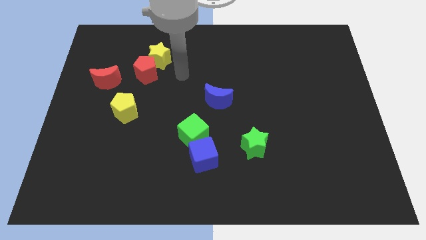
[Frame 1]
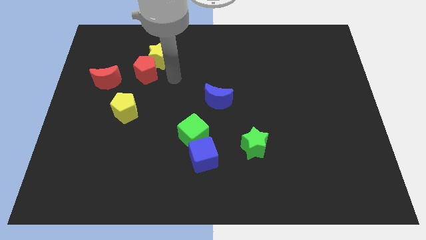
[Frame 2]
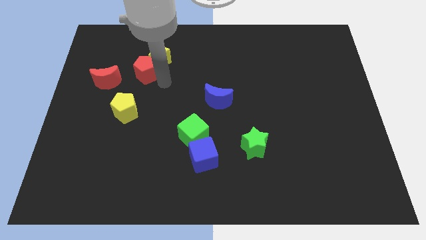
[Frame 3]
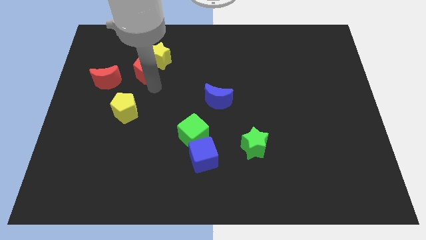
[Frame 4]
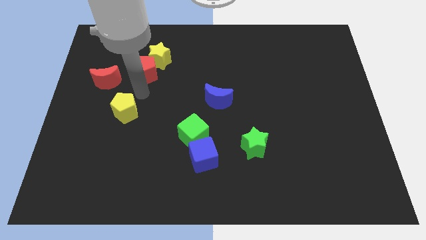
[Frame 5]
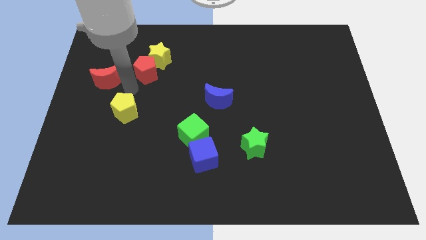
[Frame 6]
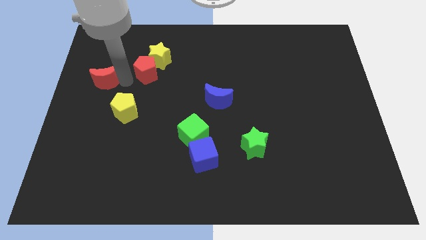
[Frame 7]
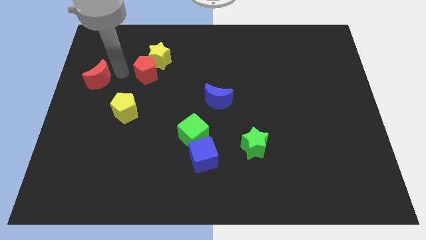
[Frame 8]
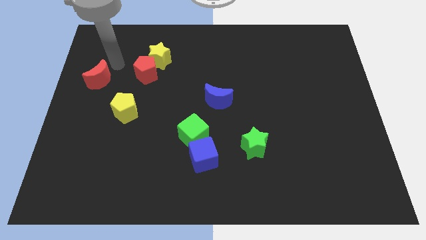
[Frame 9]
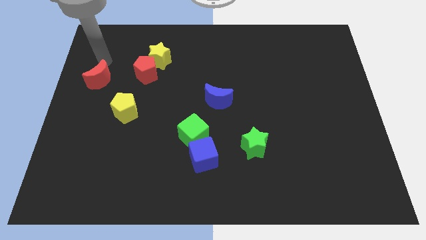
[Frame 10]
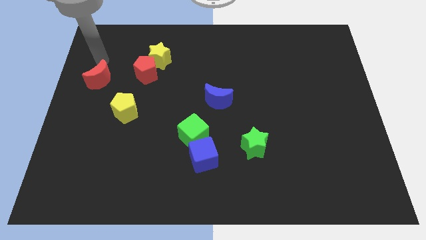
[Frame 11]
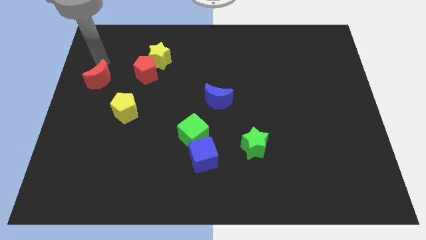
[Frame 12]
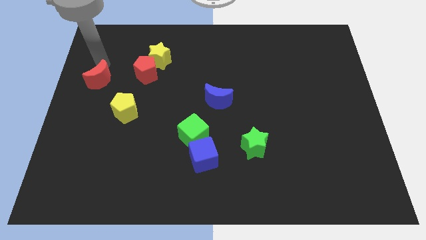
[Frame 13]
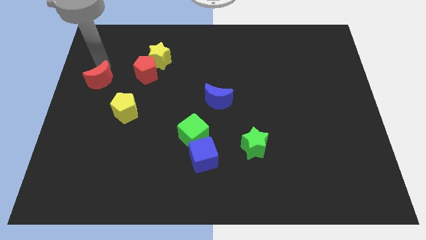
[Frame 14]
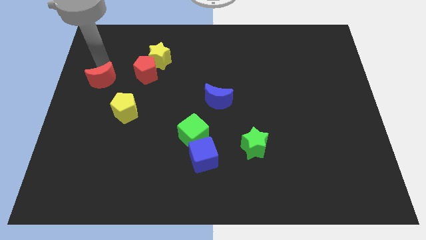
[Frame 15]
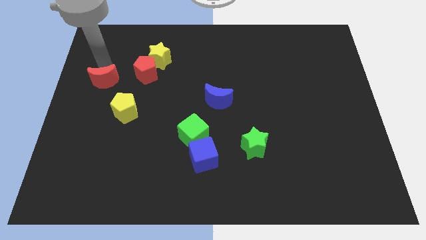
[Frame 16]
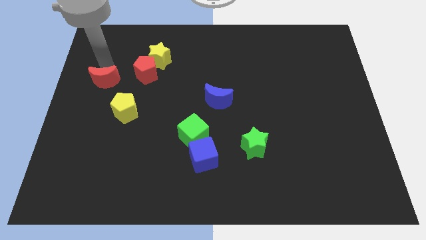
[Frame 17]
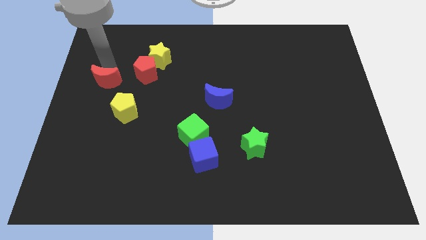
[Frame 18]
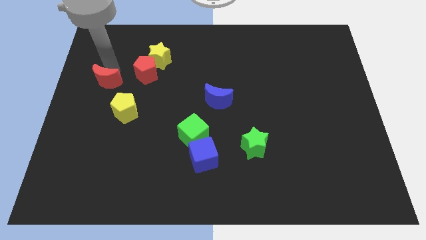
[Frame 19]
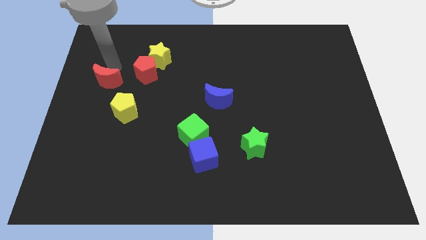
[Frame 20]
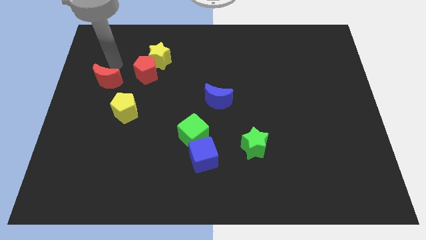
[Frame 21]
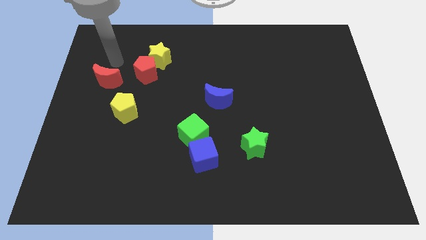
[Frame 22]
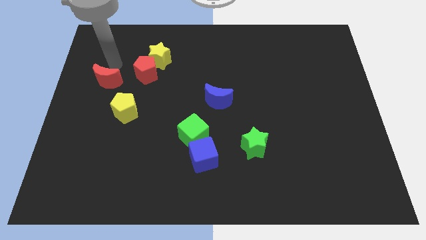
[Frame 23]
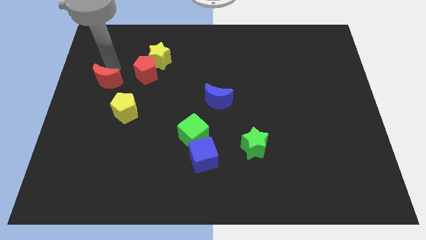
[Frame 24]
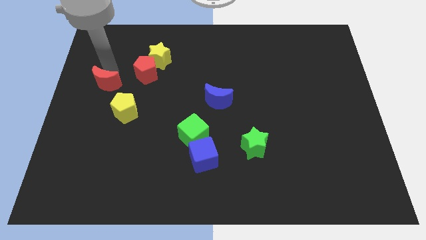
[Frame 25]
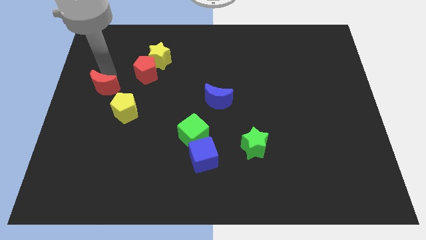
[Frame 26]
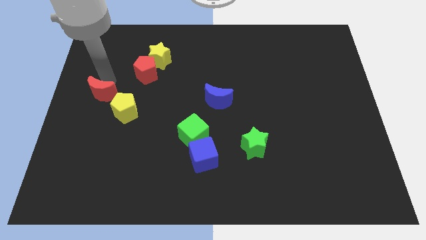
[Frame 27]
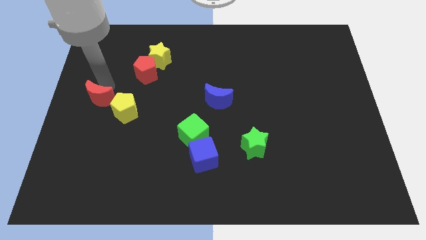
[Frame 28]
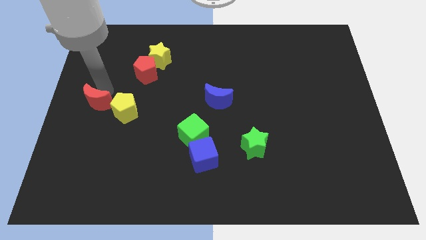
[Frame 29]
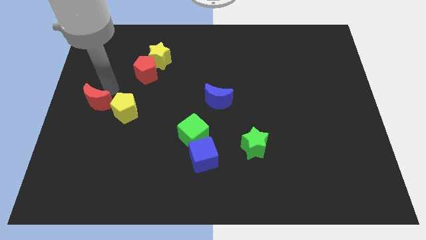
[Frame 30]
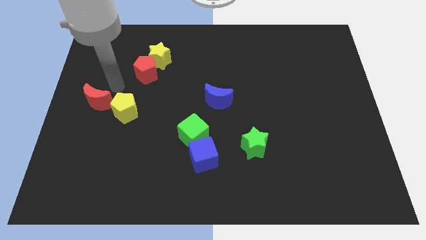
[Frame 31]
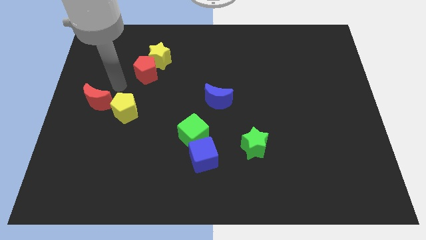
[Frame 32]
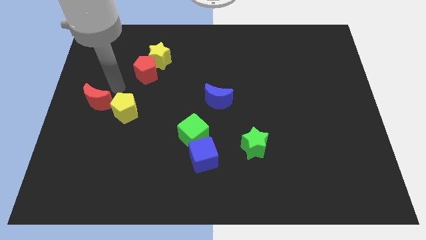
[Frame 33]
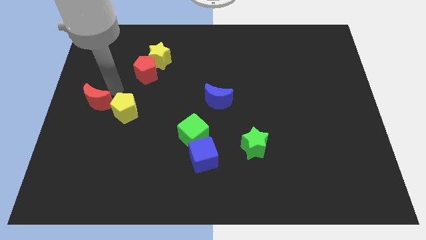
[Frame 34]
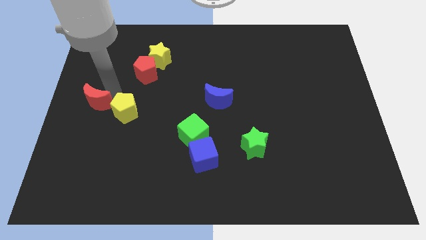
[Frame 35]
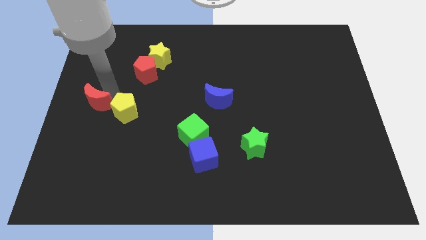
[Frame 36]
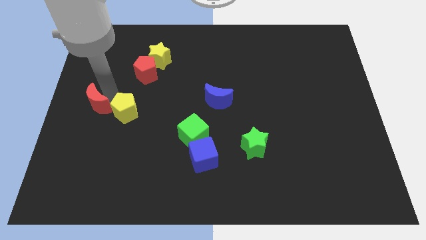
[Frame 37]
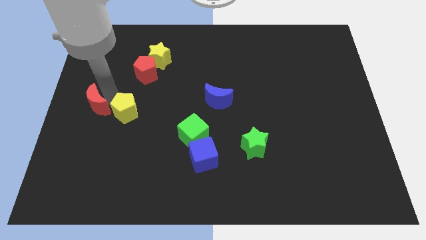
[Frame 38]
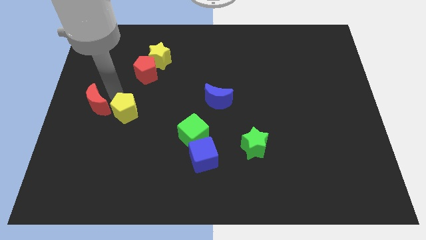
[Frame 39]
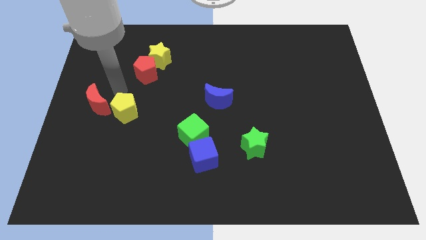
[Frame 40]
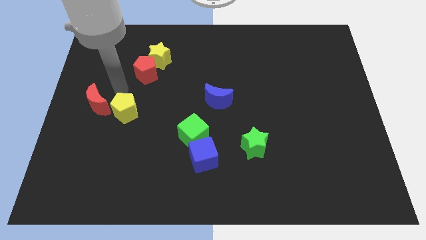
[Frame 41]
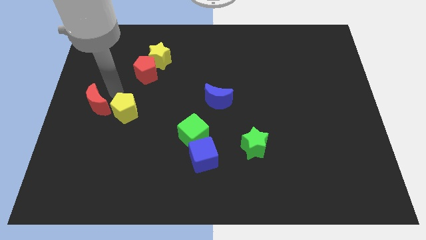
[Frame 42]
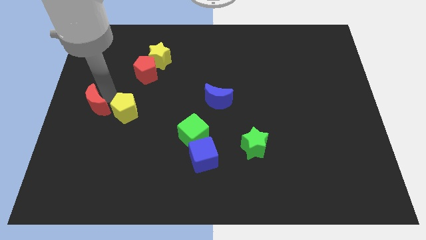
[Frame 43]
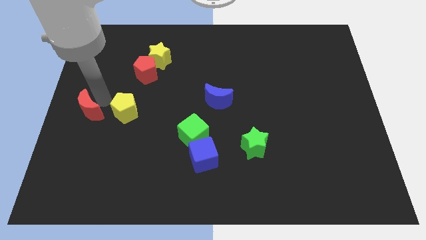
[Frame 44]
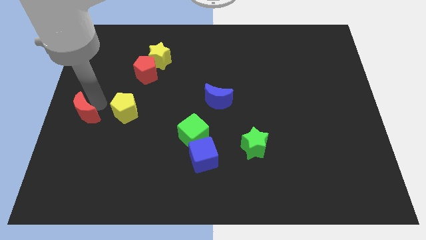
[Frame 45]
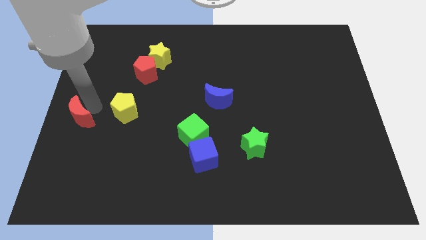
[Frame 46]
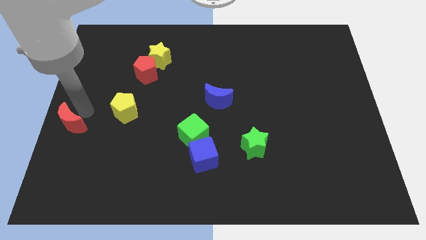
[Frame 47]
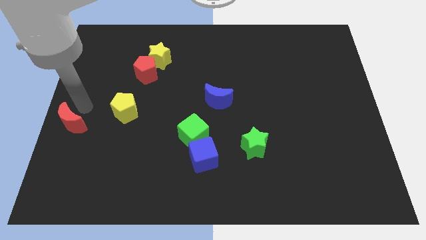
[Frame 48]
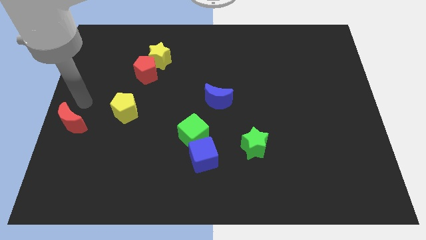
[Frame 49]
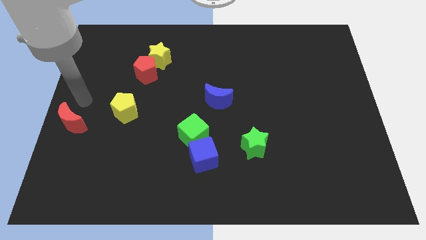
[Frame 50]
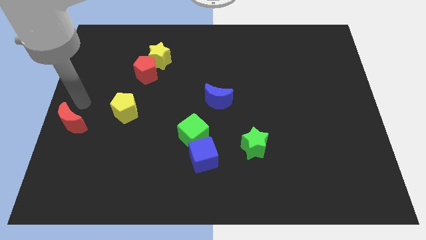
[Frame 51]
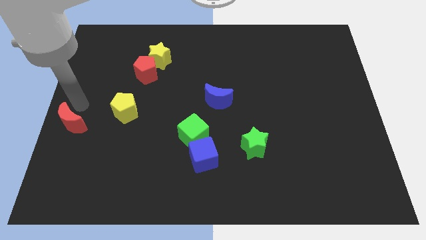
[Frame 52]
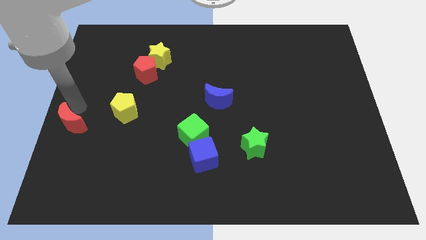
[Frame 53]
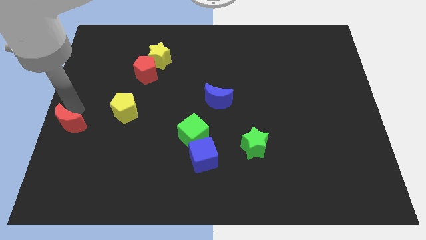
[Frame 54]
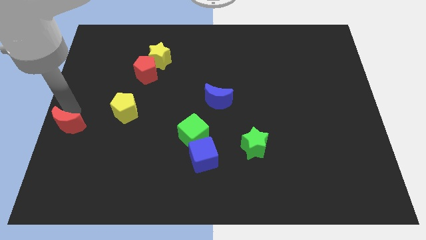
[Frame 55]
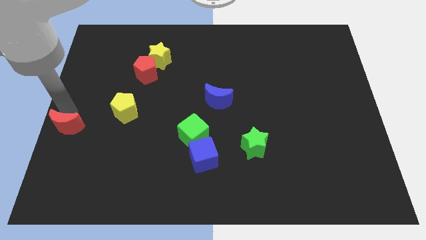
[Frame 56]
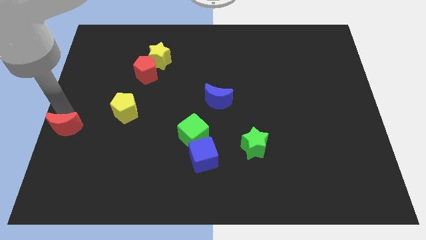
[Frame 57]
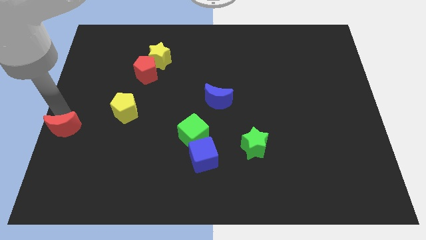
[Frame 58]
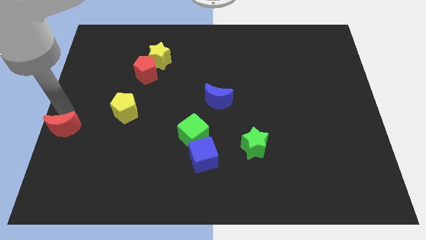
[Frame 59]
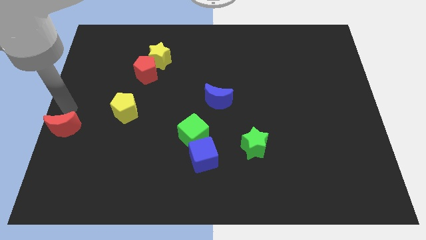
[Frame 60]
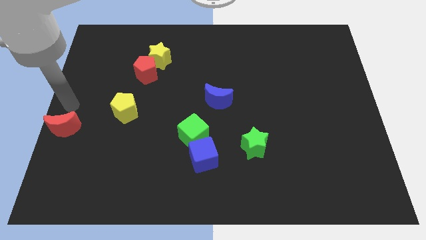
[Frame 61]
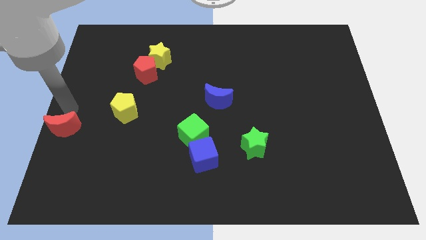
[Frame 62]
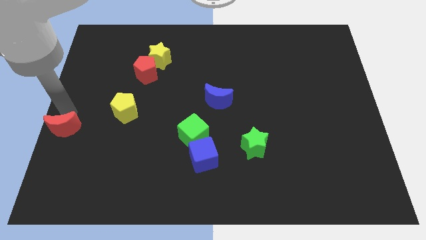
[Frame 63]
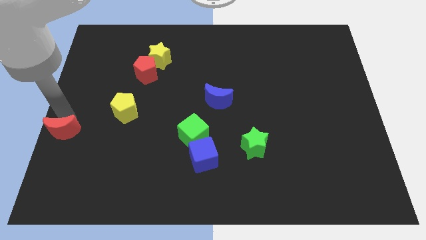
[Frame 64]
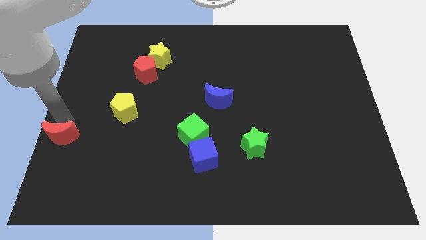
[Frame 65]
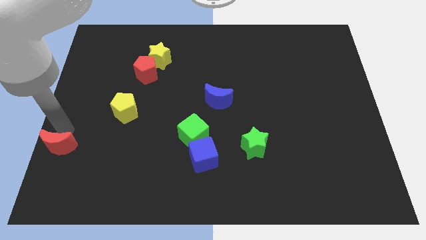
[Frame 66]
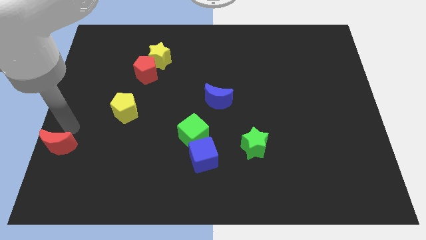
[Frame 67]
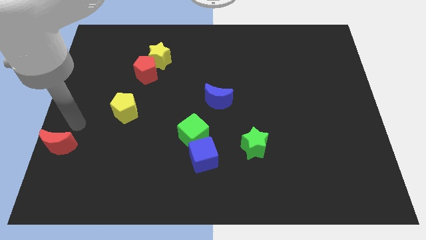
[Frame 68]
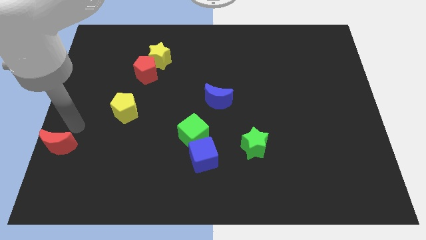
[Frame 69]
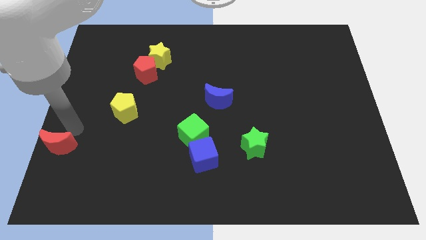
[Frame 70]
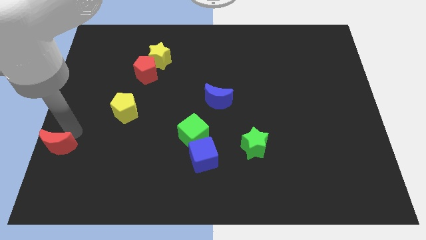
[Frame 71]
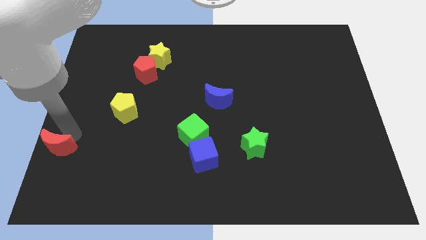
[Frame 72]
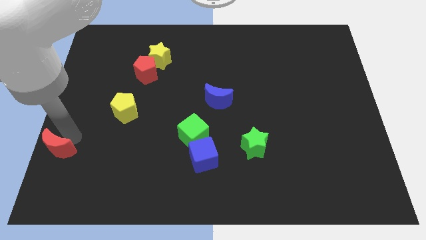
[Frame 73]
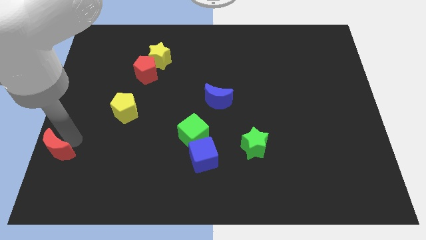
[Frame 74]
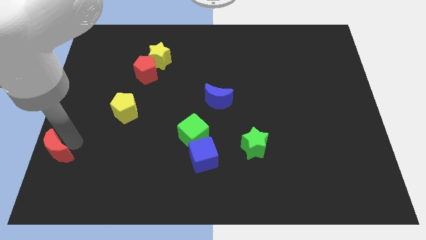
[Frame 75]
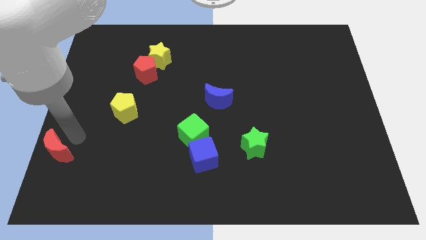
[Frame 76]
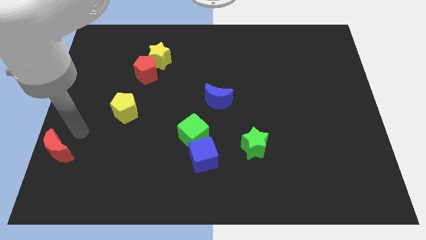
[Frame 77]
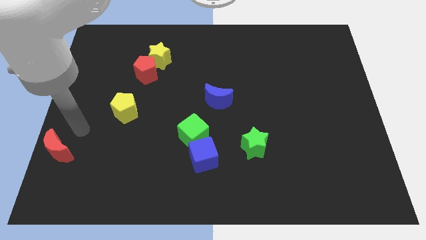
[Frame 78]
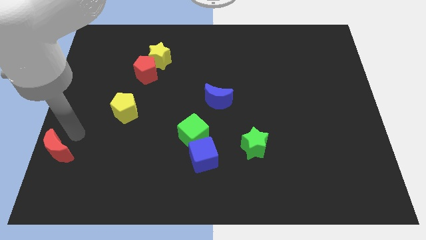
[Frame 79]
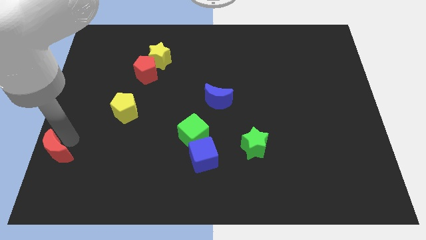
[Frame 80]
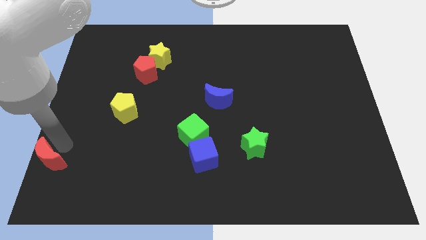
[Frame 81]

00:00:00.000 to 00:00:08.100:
push the red moon to the lower left corner
